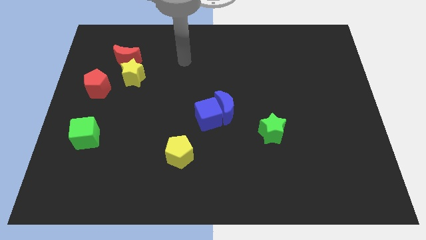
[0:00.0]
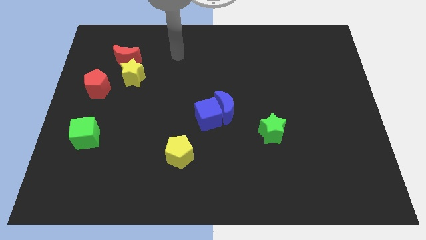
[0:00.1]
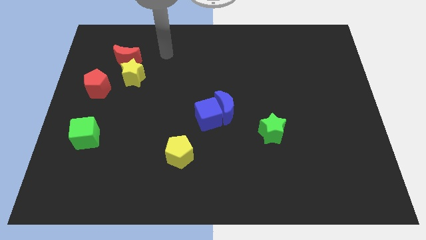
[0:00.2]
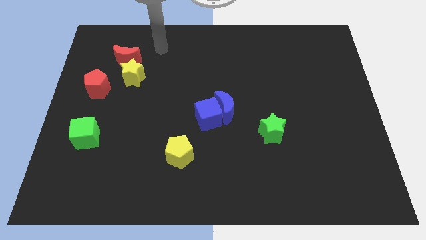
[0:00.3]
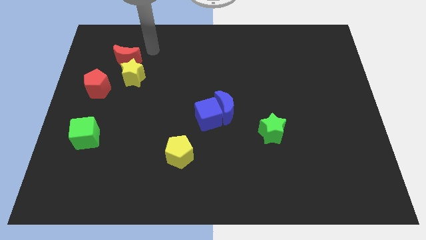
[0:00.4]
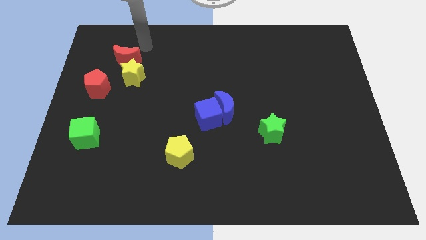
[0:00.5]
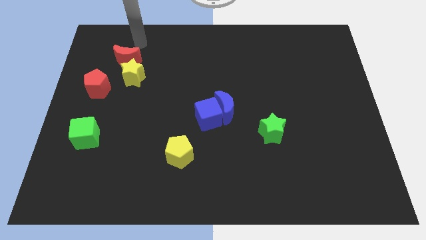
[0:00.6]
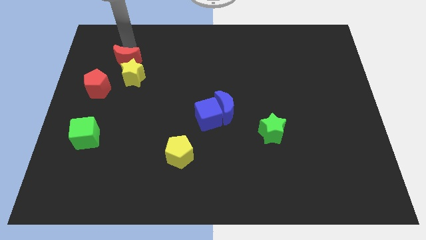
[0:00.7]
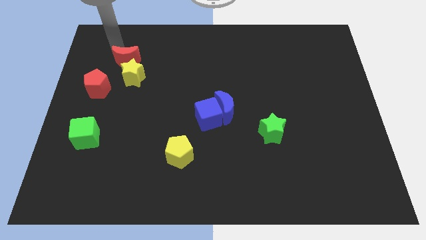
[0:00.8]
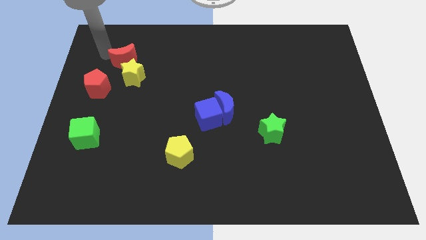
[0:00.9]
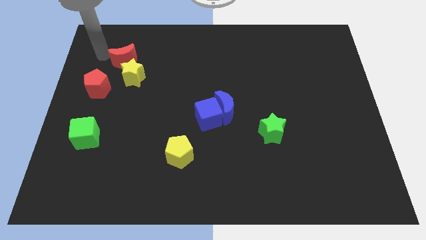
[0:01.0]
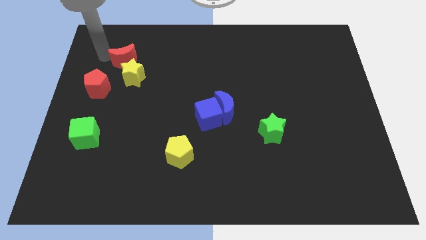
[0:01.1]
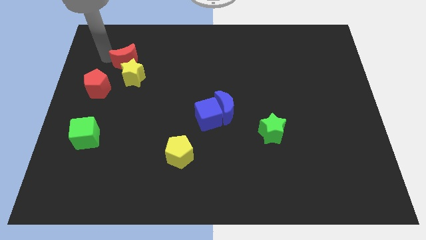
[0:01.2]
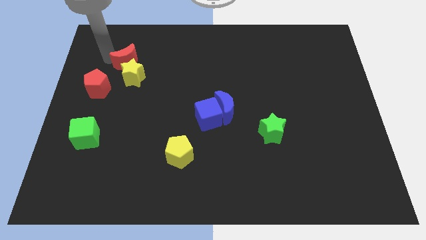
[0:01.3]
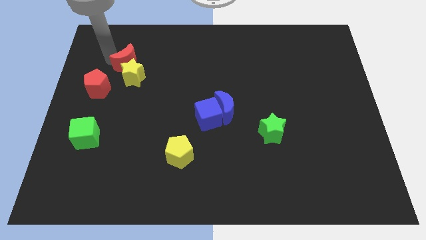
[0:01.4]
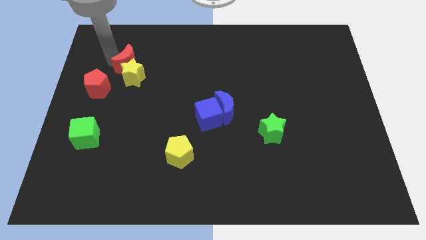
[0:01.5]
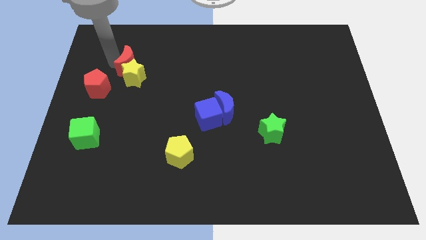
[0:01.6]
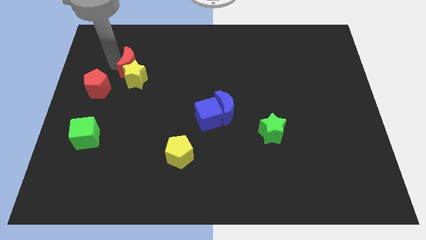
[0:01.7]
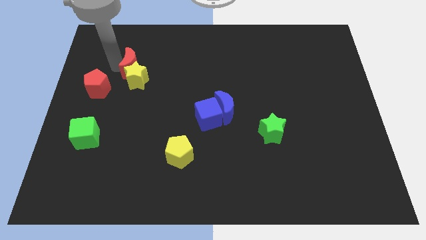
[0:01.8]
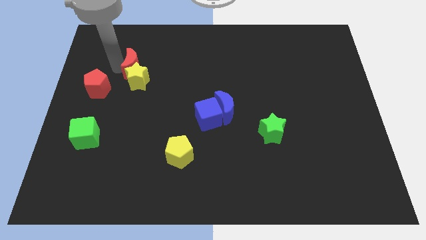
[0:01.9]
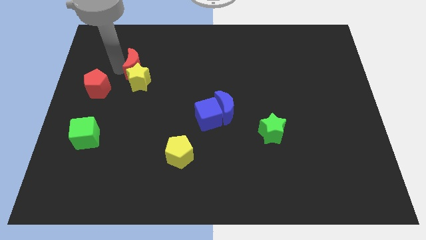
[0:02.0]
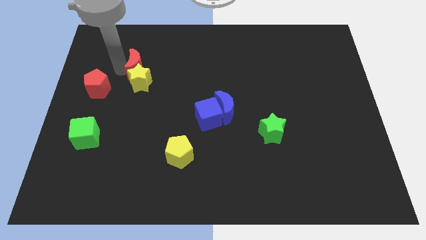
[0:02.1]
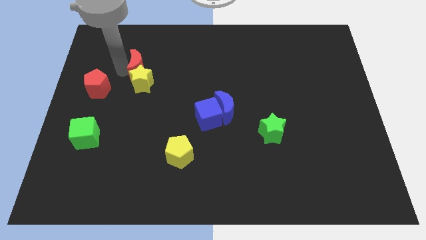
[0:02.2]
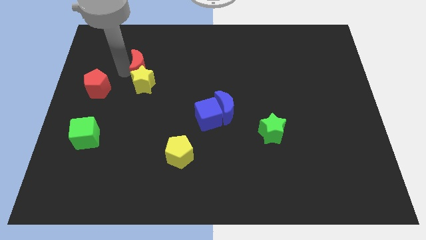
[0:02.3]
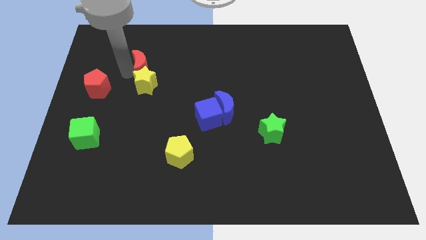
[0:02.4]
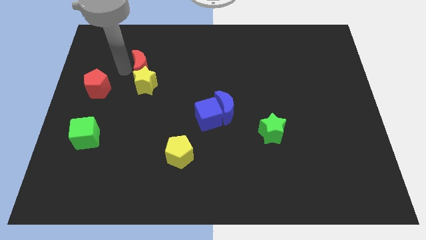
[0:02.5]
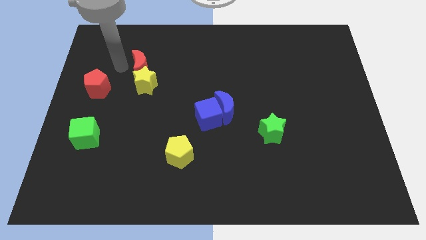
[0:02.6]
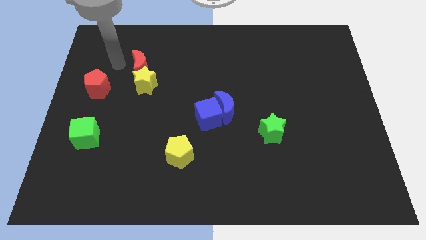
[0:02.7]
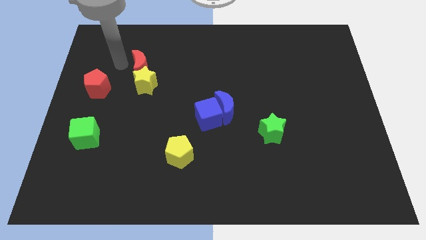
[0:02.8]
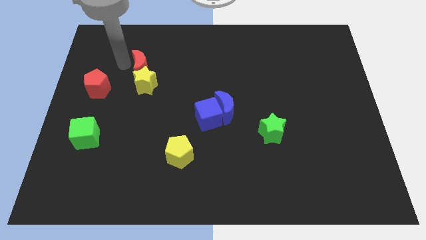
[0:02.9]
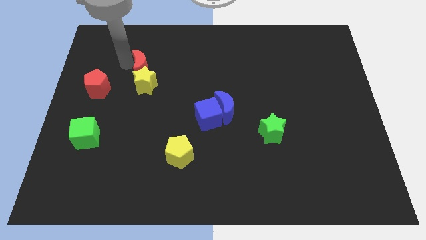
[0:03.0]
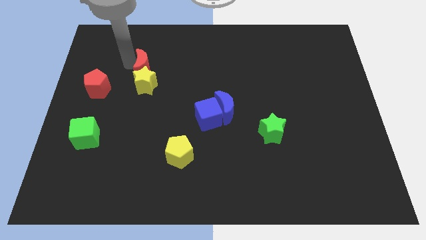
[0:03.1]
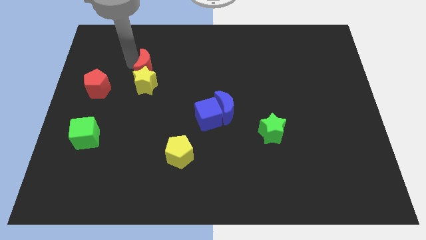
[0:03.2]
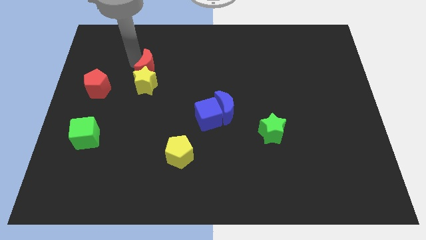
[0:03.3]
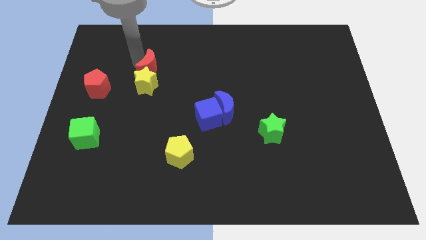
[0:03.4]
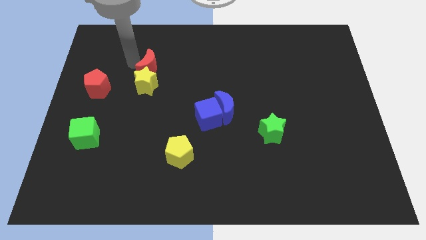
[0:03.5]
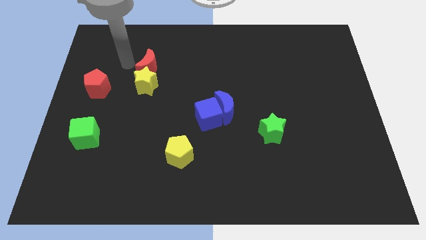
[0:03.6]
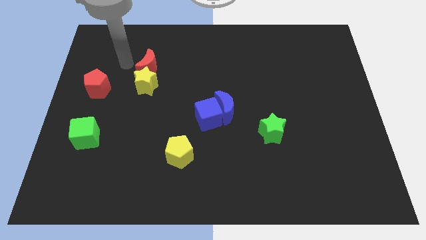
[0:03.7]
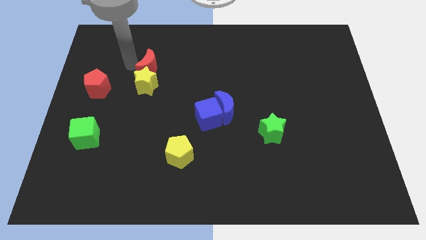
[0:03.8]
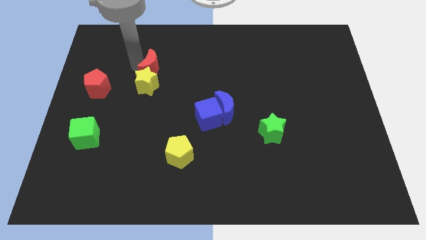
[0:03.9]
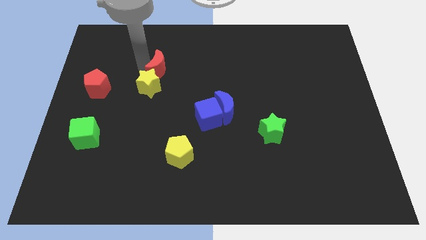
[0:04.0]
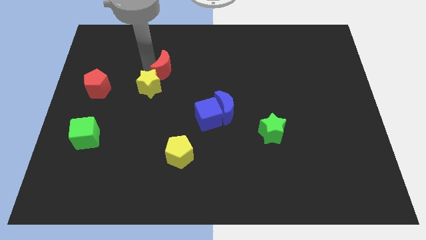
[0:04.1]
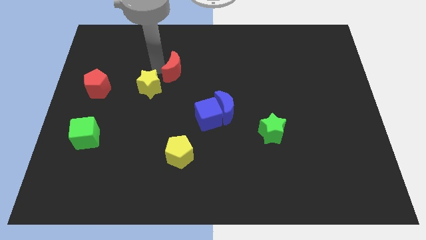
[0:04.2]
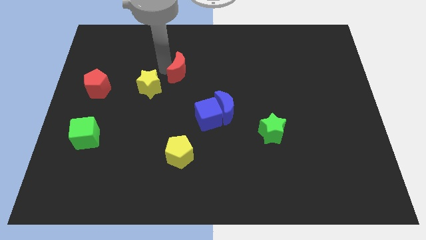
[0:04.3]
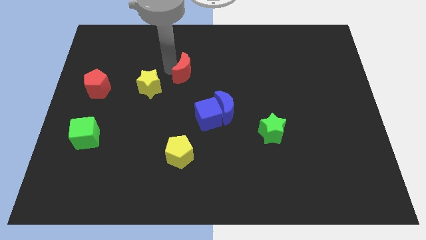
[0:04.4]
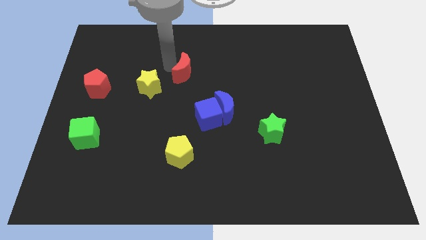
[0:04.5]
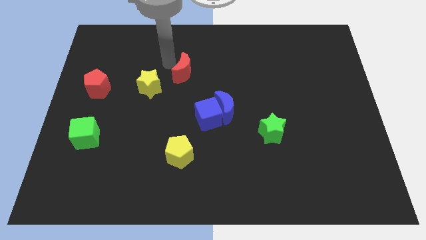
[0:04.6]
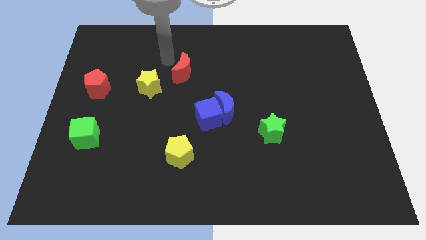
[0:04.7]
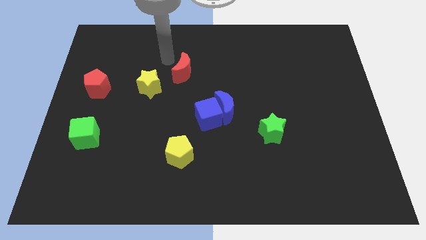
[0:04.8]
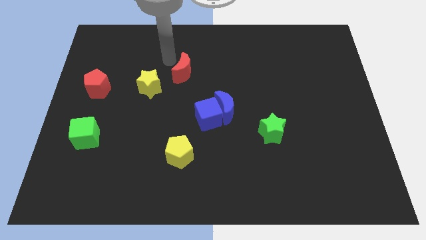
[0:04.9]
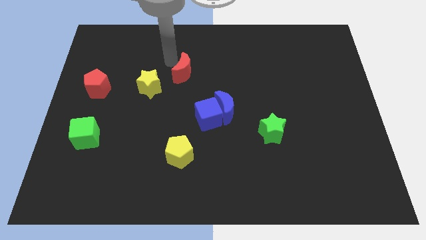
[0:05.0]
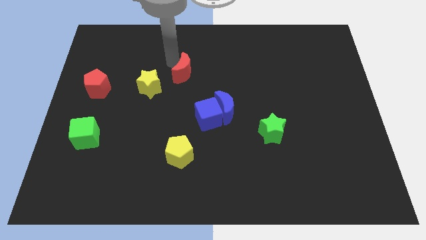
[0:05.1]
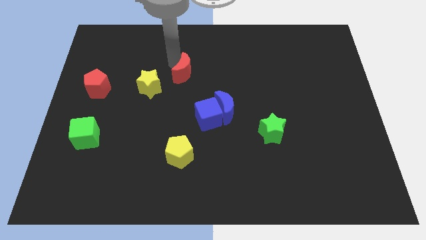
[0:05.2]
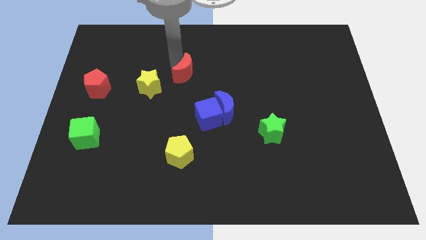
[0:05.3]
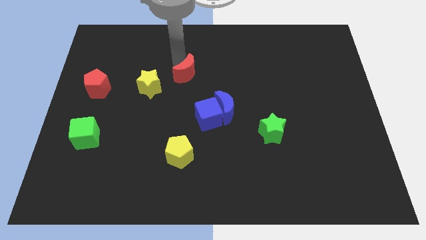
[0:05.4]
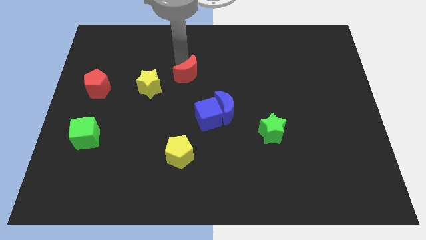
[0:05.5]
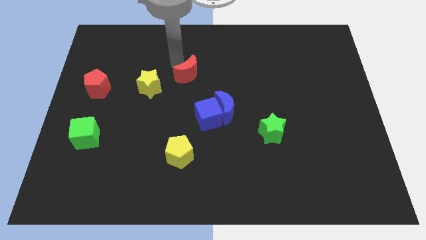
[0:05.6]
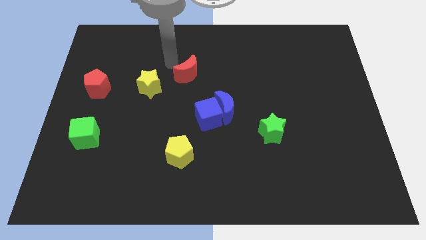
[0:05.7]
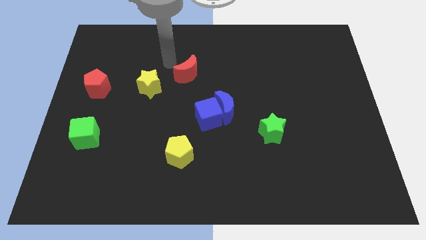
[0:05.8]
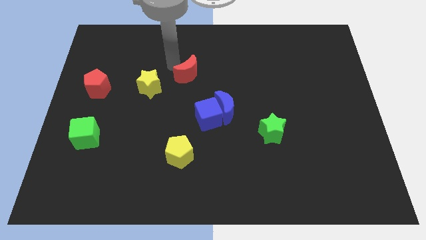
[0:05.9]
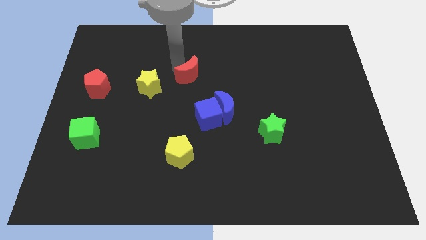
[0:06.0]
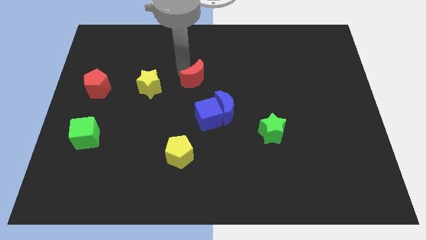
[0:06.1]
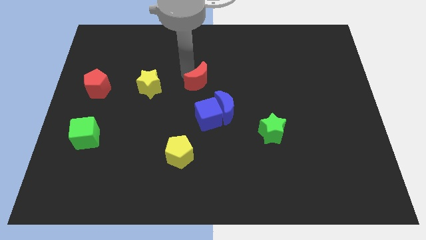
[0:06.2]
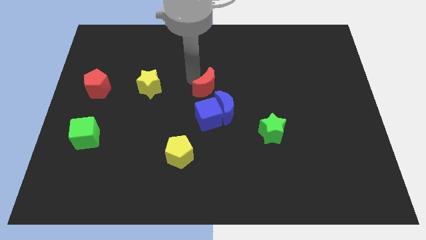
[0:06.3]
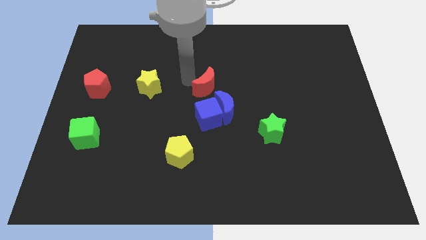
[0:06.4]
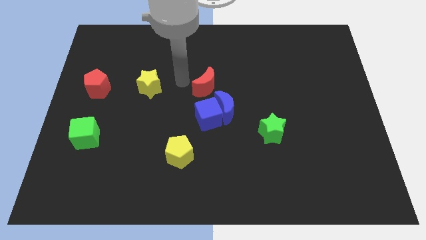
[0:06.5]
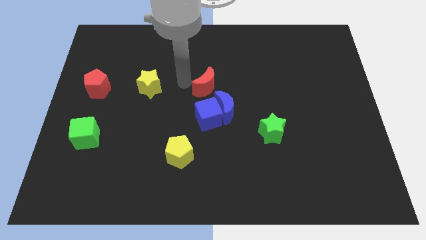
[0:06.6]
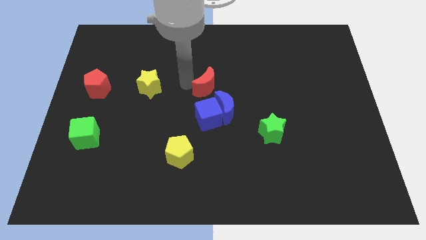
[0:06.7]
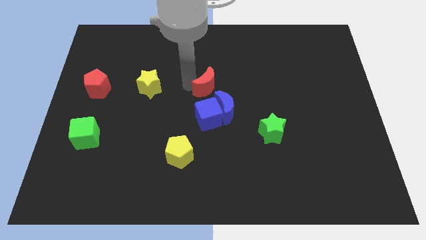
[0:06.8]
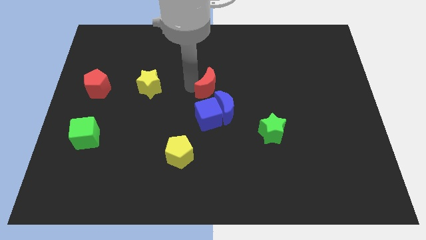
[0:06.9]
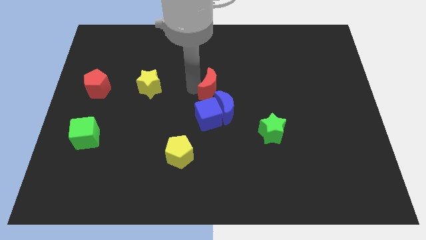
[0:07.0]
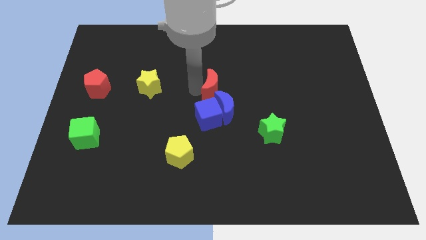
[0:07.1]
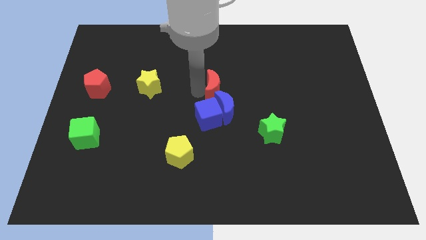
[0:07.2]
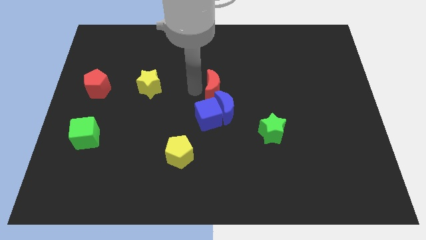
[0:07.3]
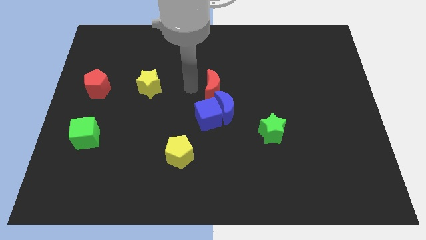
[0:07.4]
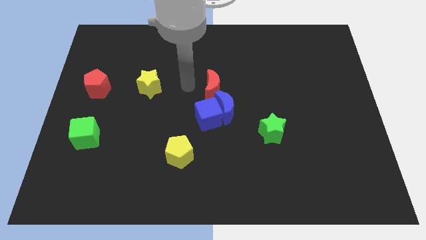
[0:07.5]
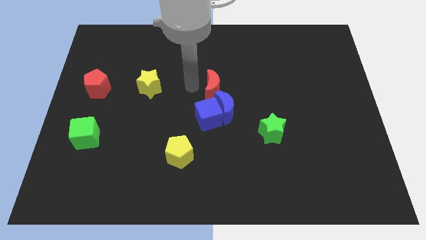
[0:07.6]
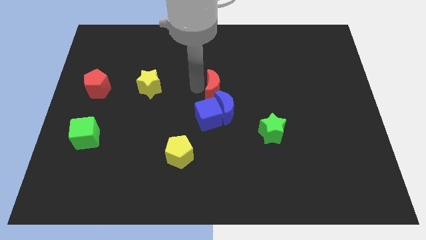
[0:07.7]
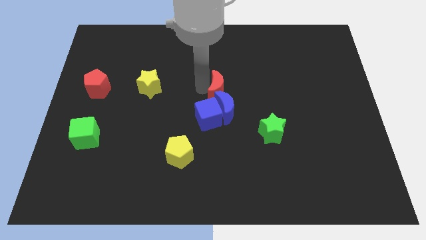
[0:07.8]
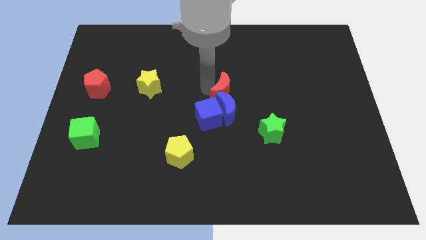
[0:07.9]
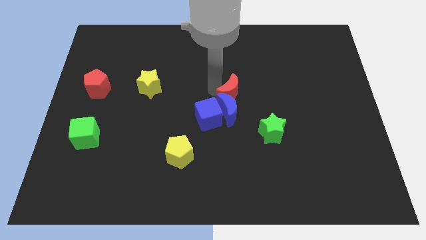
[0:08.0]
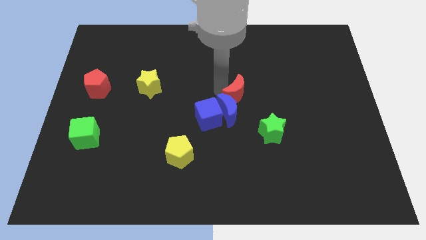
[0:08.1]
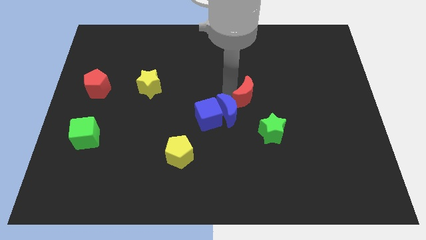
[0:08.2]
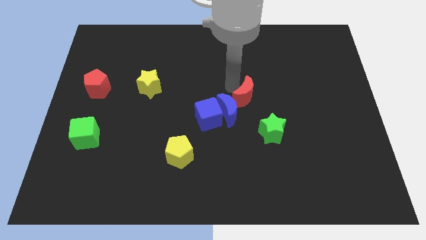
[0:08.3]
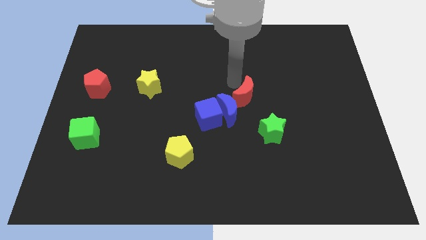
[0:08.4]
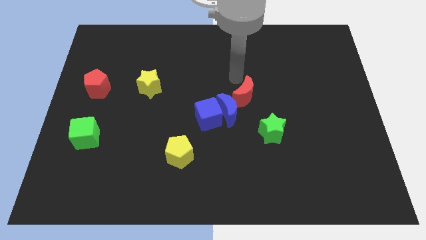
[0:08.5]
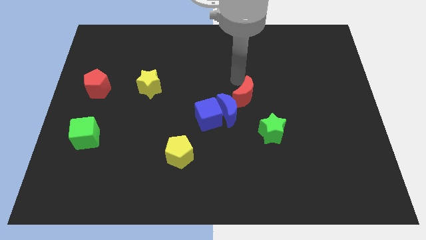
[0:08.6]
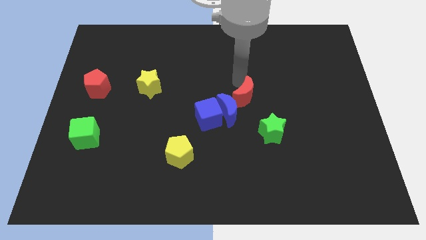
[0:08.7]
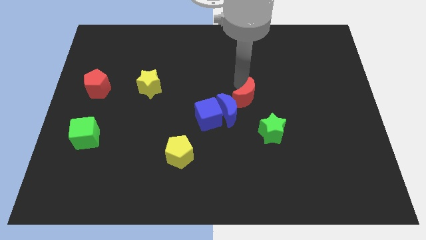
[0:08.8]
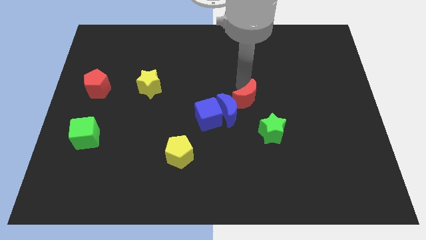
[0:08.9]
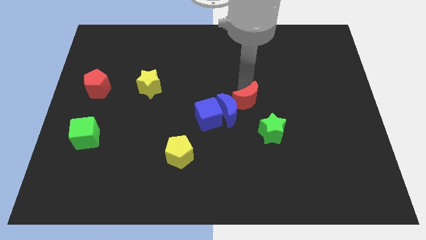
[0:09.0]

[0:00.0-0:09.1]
put the red moon right of the blue cube
